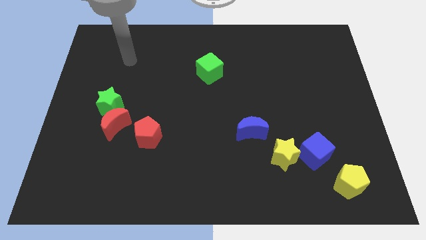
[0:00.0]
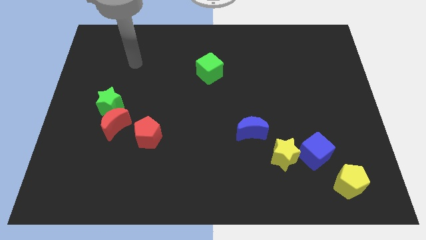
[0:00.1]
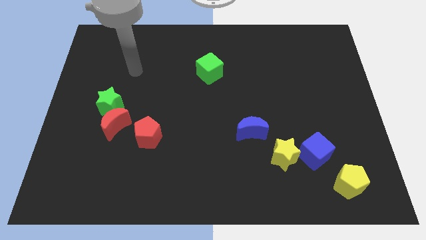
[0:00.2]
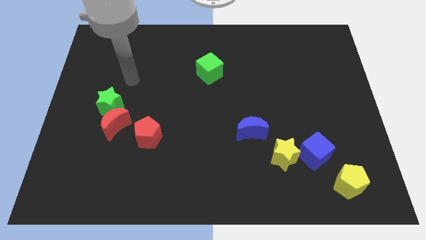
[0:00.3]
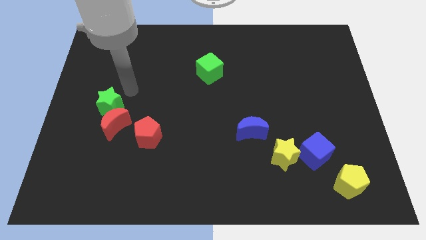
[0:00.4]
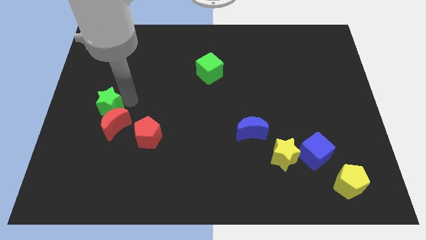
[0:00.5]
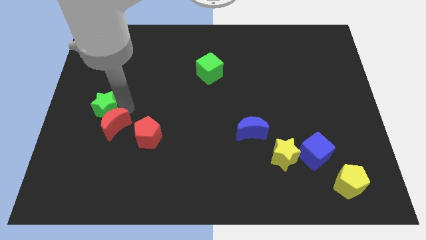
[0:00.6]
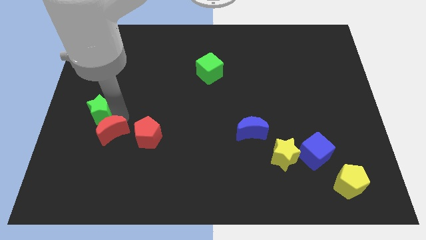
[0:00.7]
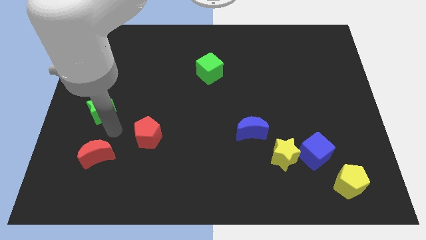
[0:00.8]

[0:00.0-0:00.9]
pull the green star apart from the red moon

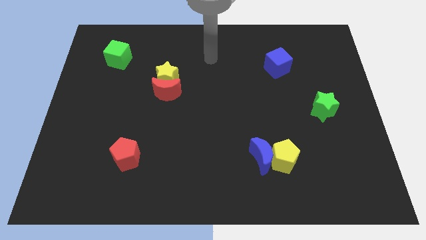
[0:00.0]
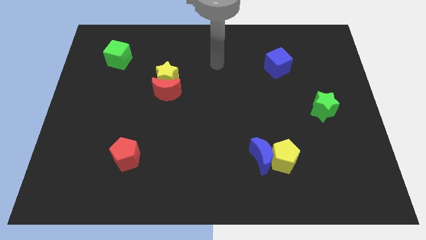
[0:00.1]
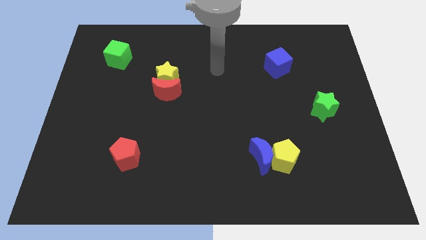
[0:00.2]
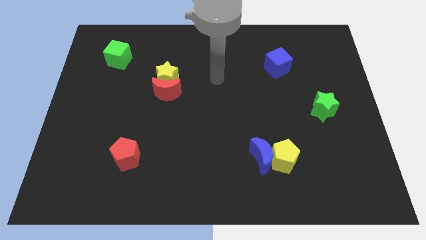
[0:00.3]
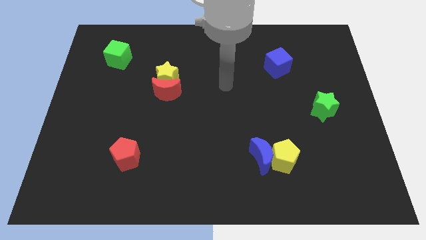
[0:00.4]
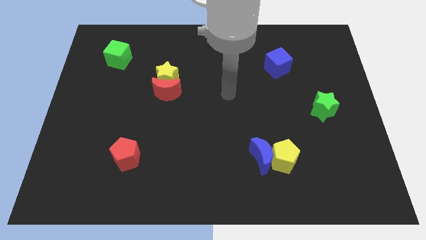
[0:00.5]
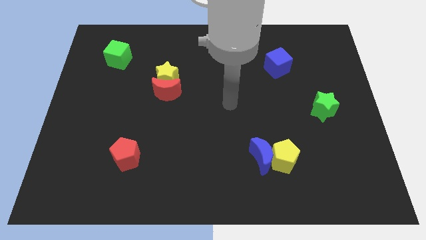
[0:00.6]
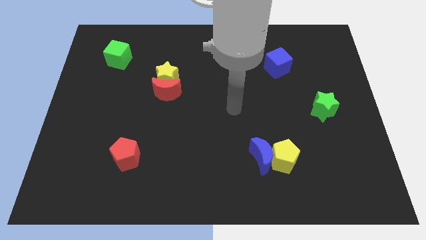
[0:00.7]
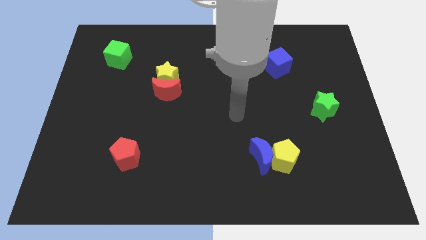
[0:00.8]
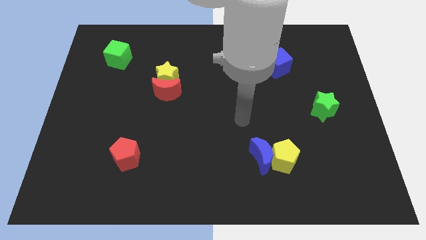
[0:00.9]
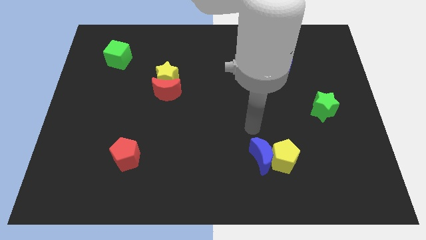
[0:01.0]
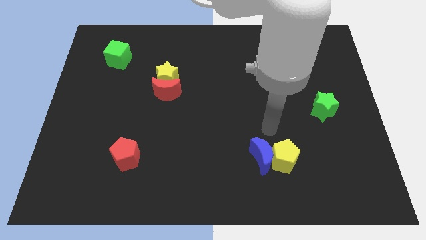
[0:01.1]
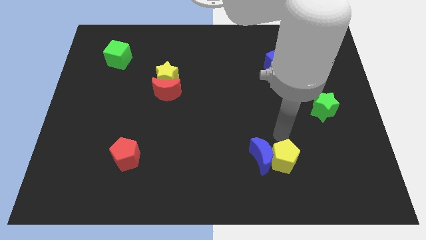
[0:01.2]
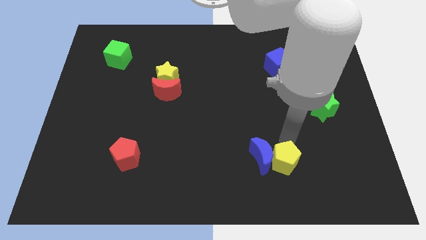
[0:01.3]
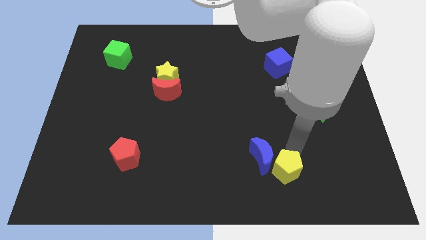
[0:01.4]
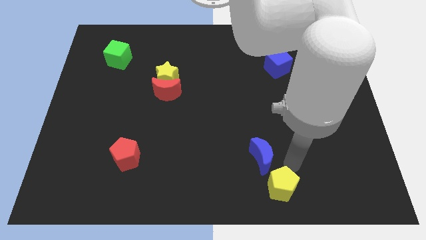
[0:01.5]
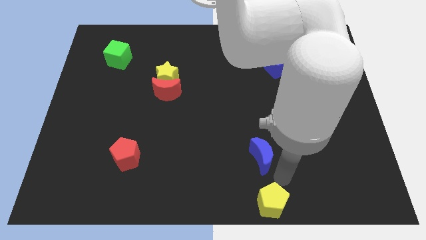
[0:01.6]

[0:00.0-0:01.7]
move the blue moon away from the yellow pentagon

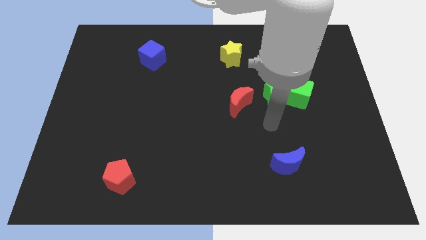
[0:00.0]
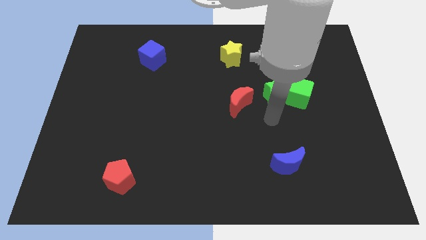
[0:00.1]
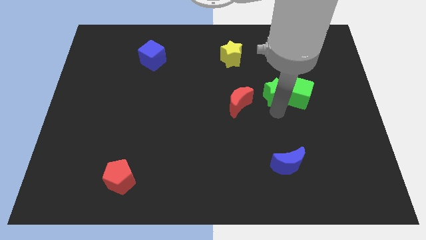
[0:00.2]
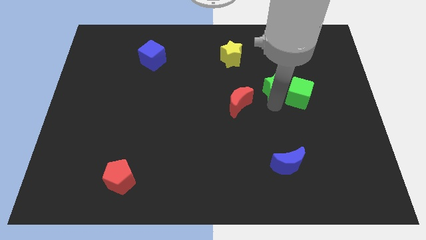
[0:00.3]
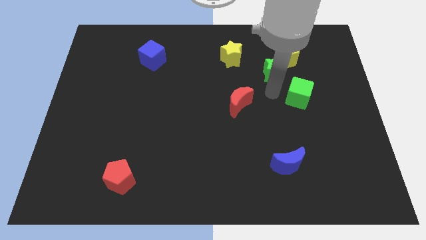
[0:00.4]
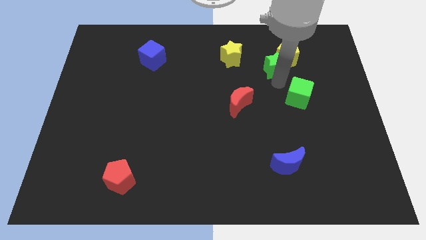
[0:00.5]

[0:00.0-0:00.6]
pull the green cube apart from the green star

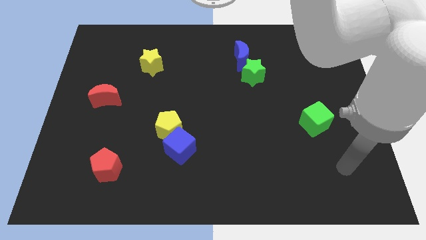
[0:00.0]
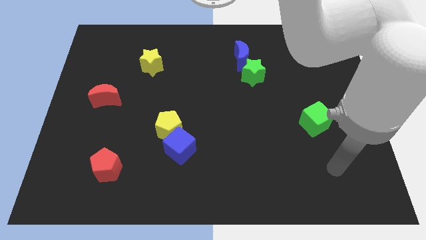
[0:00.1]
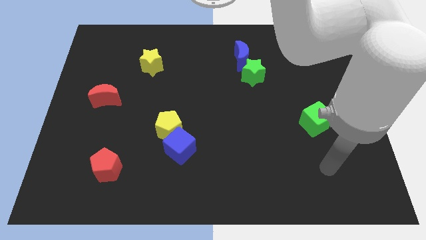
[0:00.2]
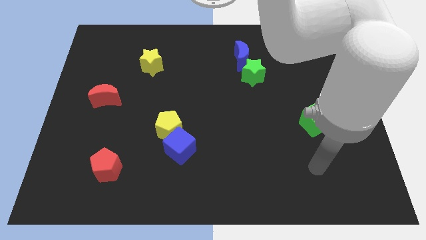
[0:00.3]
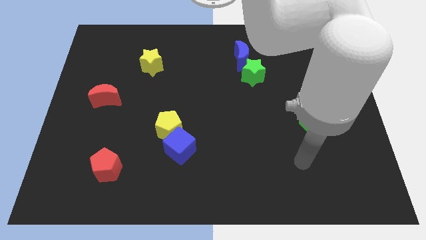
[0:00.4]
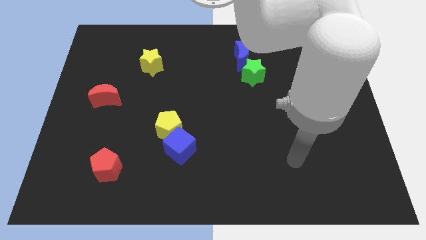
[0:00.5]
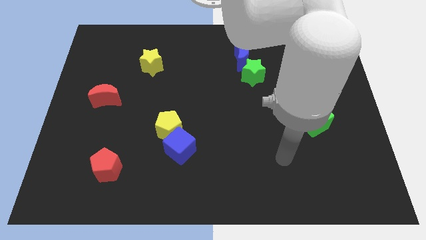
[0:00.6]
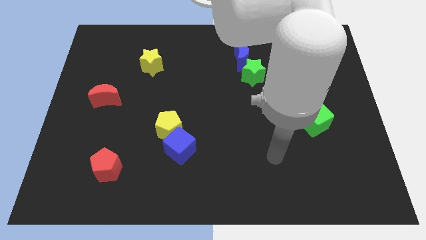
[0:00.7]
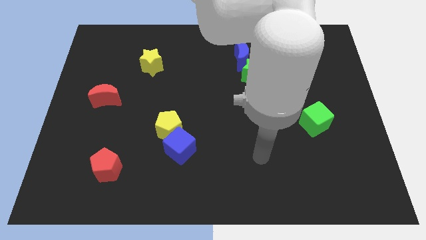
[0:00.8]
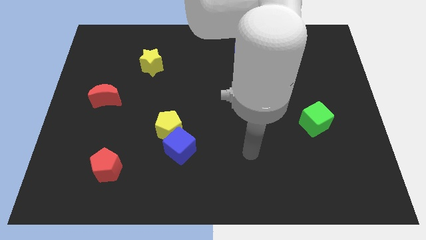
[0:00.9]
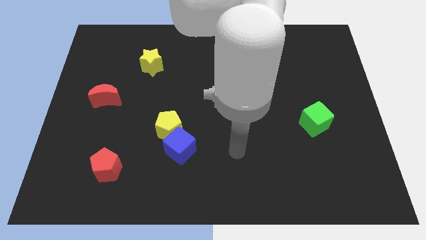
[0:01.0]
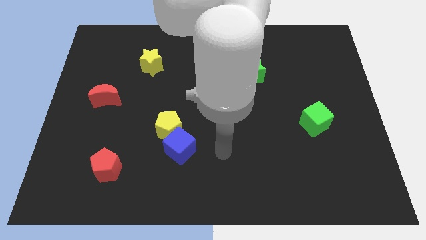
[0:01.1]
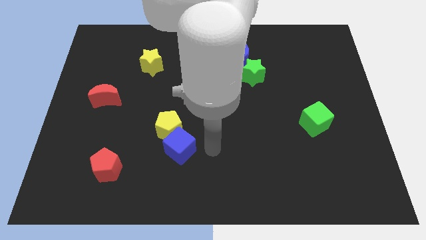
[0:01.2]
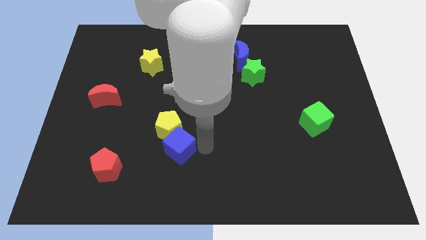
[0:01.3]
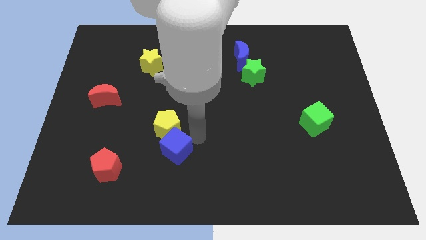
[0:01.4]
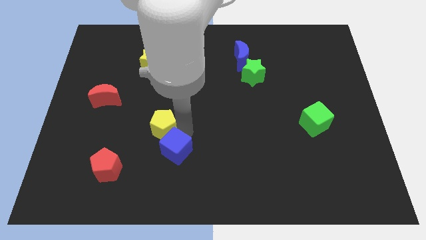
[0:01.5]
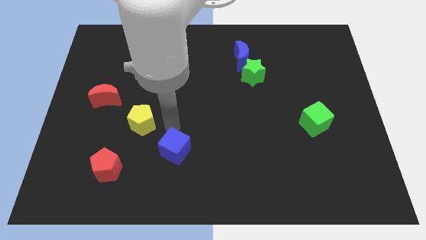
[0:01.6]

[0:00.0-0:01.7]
separate the blue cube from the yellow pentagon

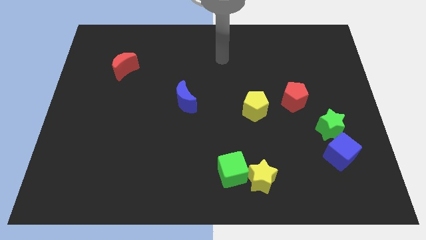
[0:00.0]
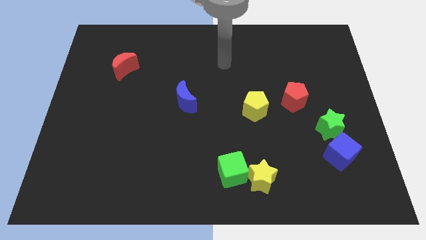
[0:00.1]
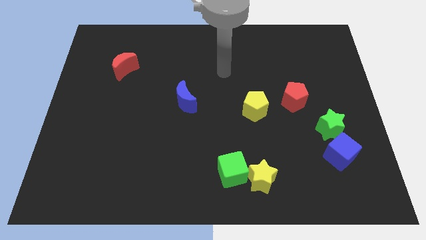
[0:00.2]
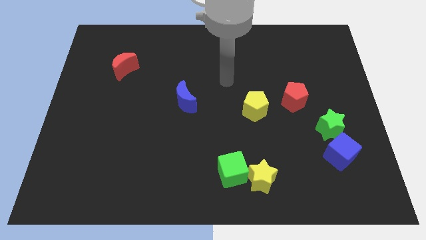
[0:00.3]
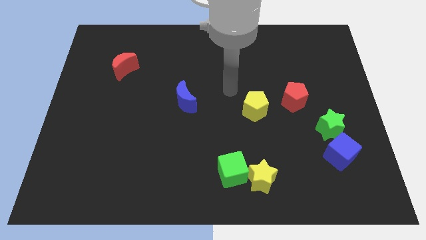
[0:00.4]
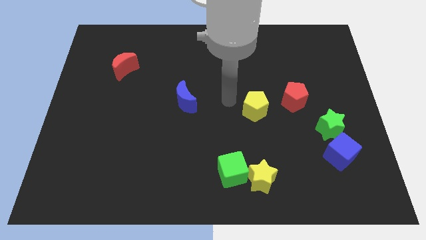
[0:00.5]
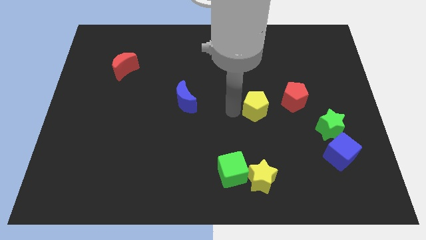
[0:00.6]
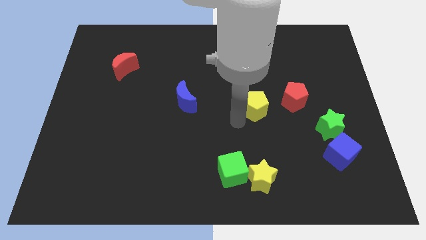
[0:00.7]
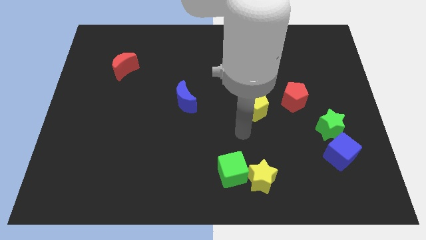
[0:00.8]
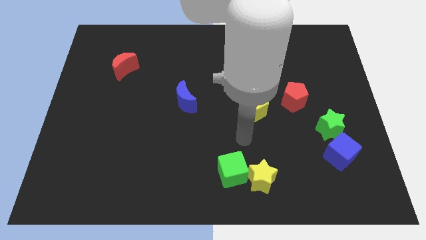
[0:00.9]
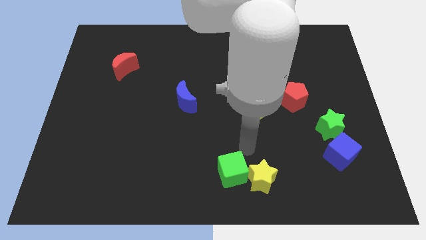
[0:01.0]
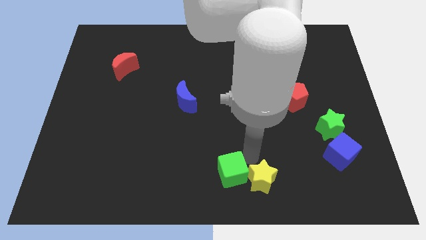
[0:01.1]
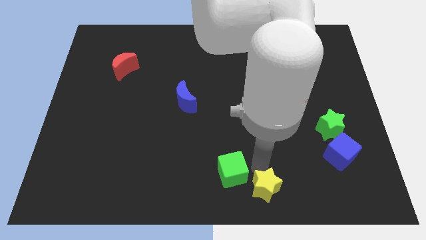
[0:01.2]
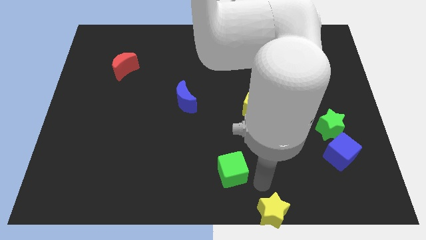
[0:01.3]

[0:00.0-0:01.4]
pull the green cube apart from the yellow star

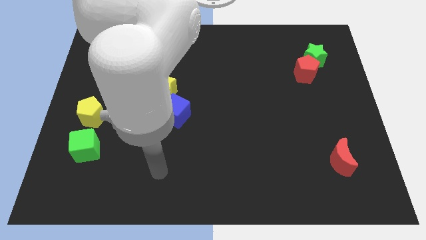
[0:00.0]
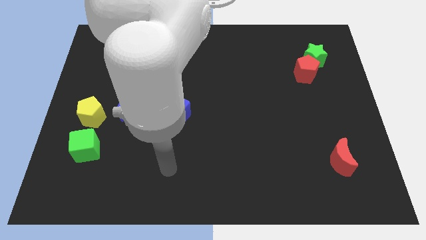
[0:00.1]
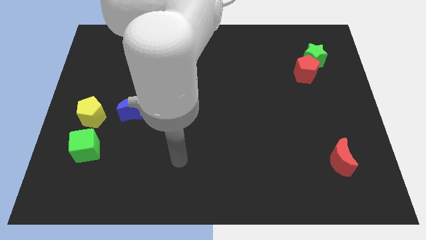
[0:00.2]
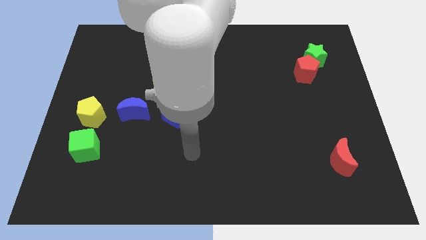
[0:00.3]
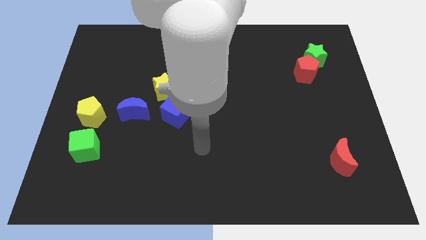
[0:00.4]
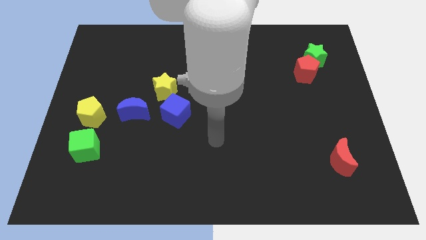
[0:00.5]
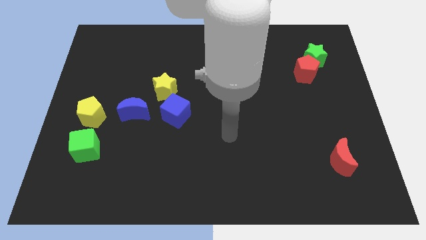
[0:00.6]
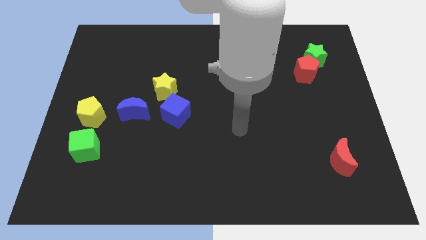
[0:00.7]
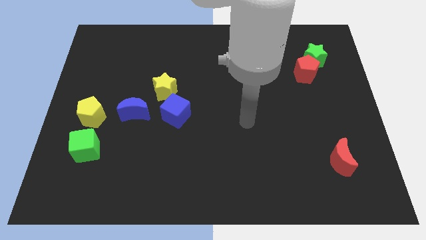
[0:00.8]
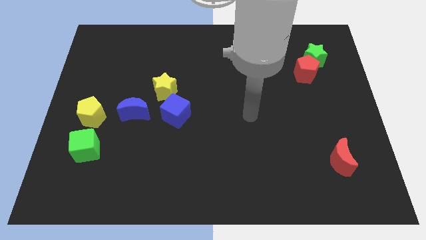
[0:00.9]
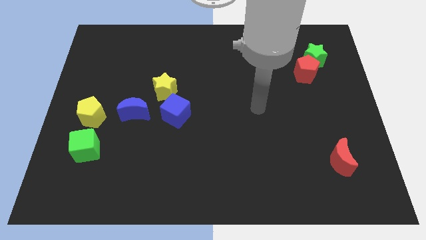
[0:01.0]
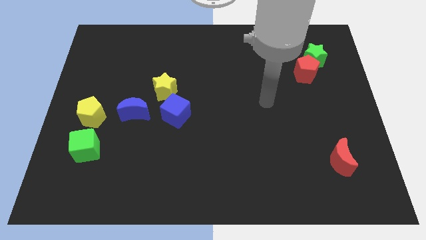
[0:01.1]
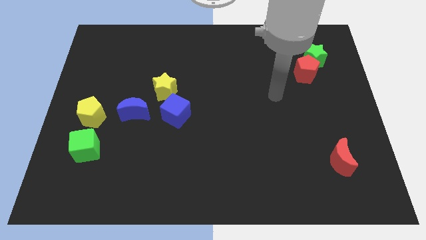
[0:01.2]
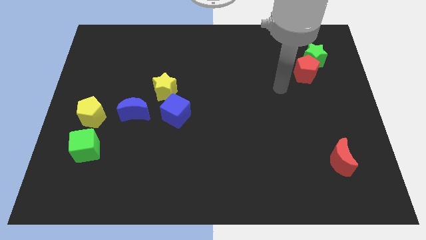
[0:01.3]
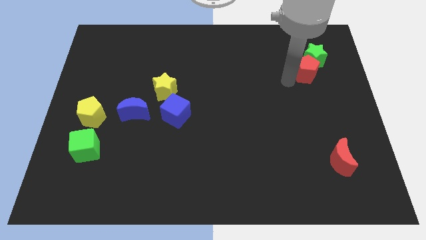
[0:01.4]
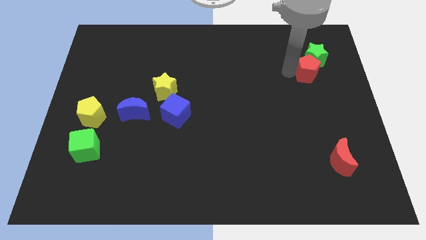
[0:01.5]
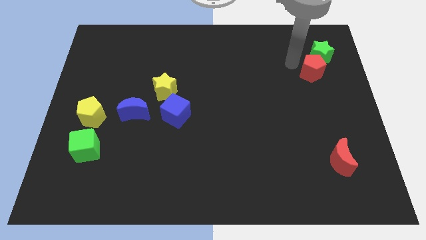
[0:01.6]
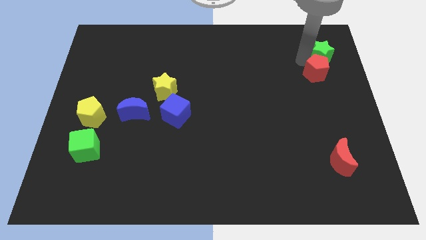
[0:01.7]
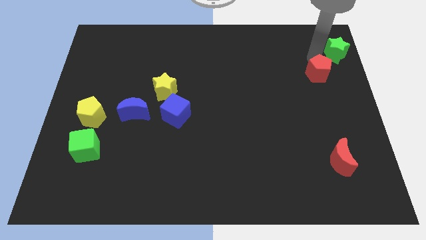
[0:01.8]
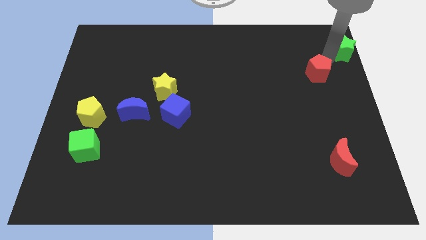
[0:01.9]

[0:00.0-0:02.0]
separate the red pentagon from the green star

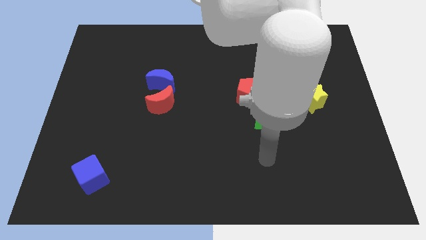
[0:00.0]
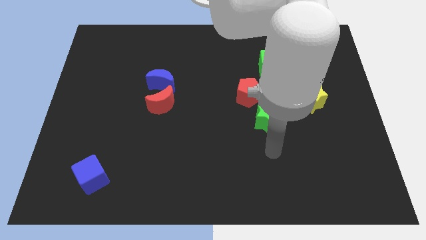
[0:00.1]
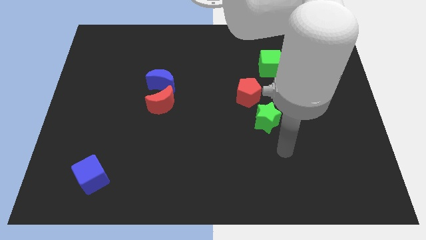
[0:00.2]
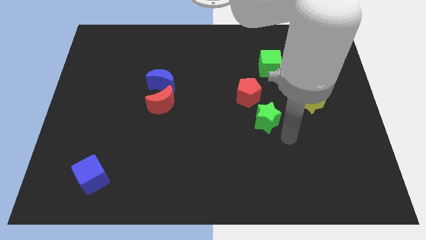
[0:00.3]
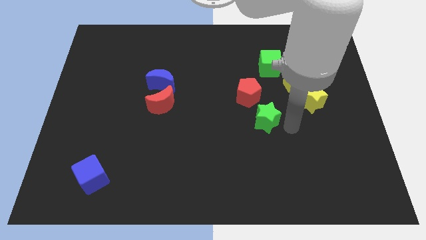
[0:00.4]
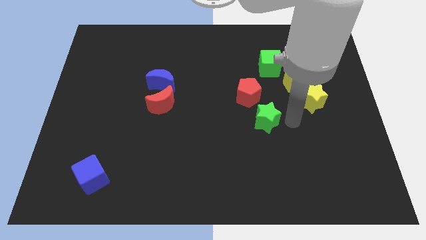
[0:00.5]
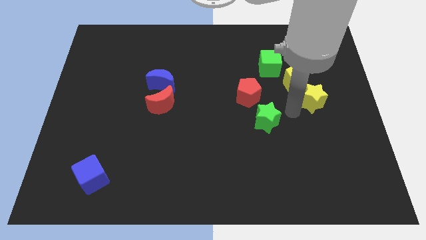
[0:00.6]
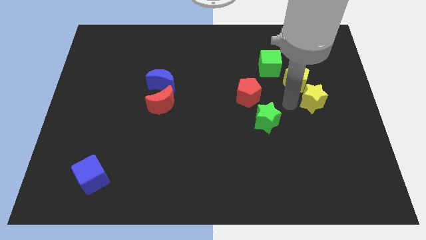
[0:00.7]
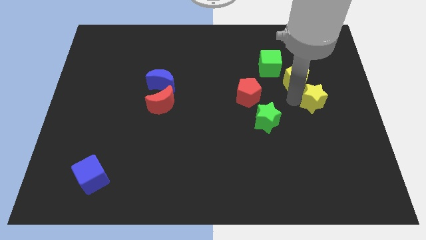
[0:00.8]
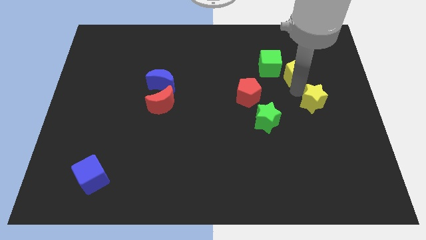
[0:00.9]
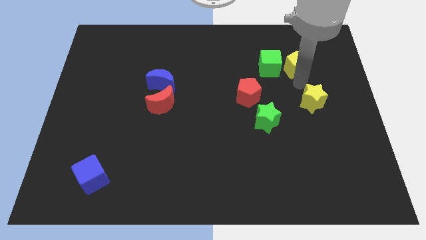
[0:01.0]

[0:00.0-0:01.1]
separate the yellow star from the yellow pentagon
